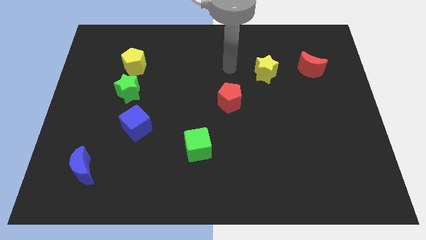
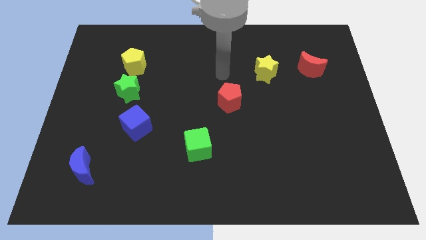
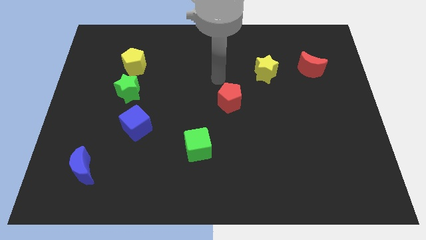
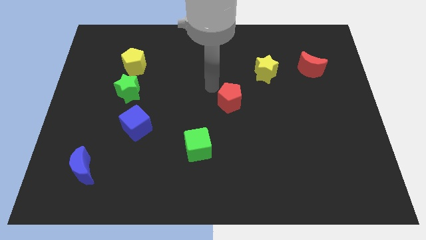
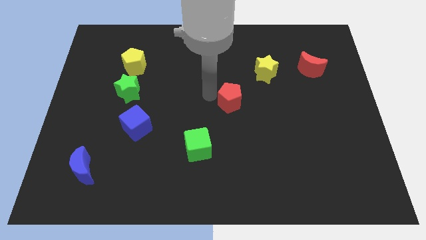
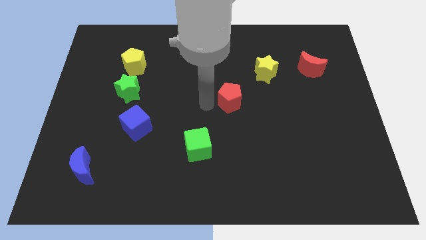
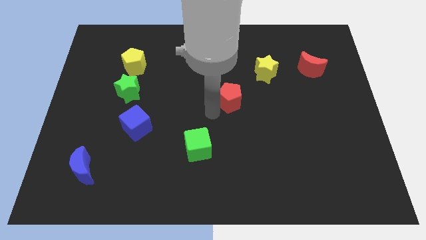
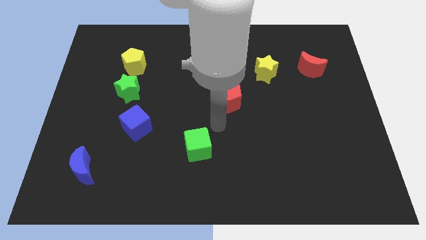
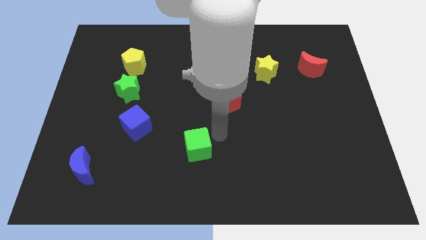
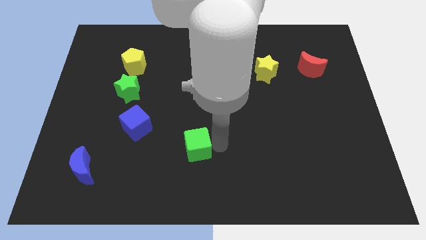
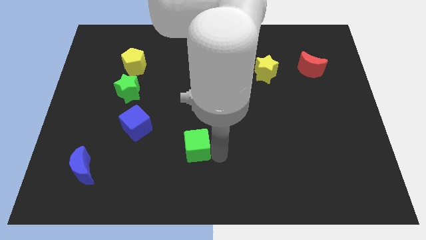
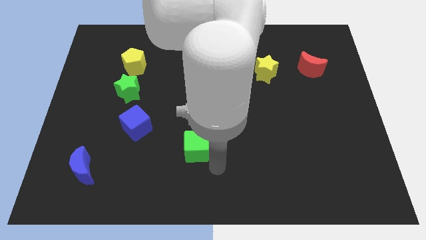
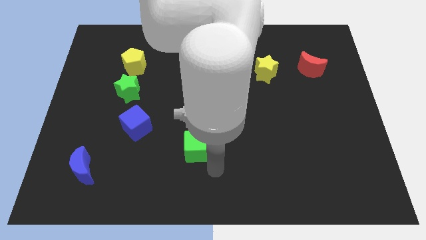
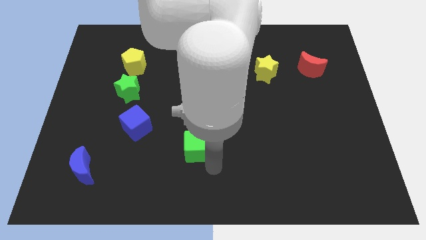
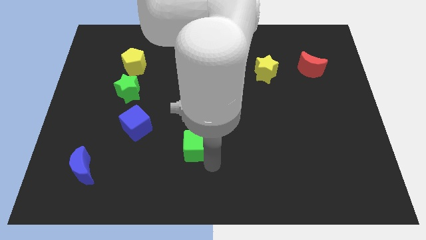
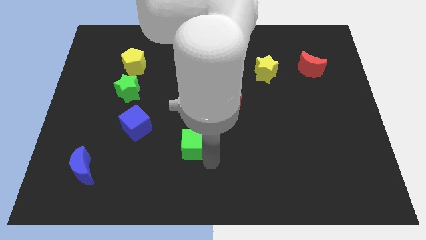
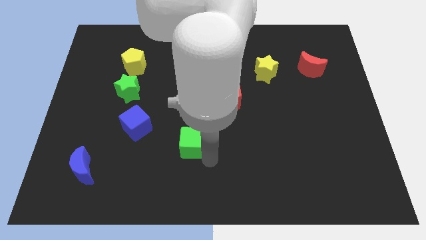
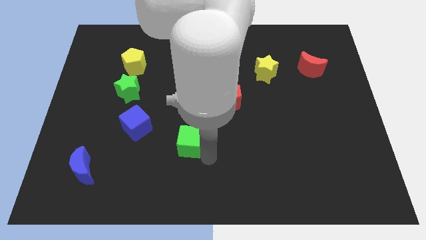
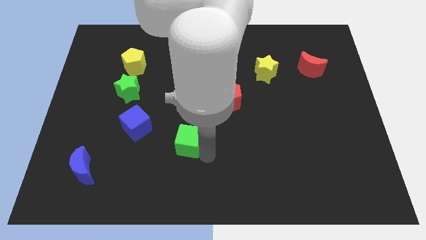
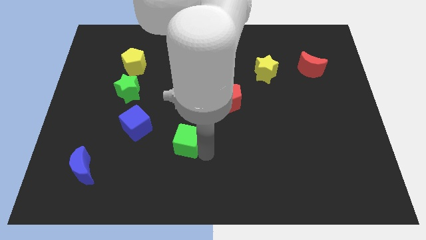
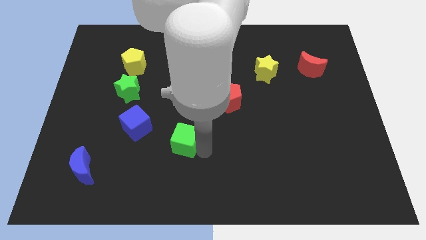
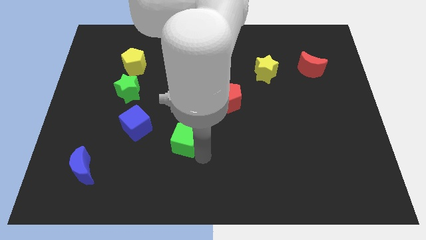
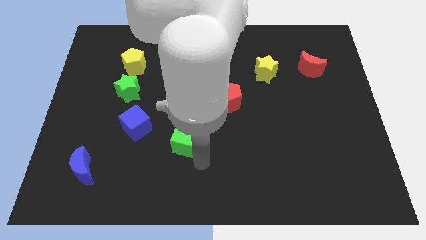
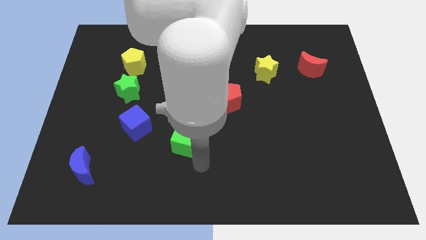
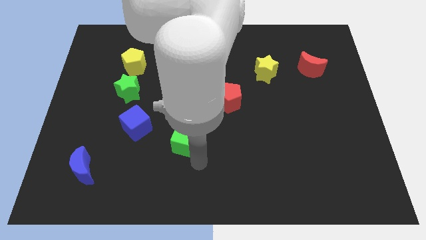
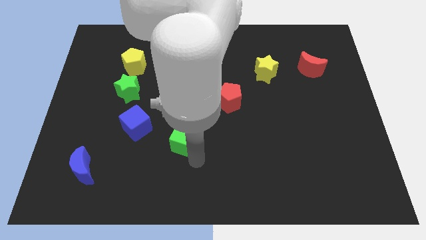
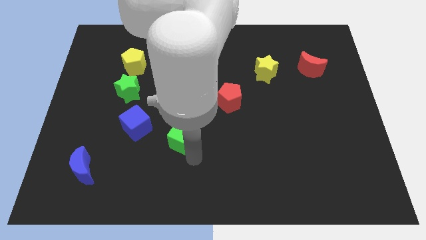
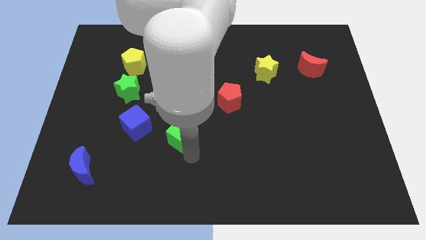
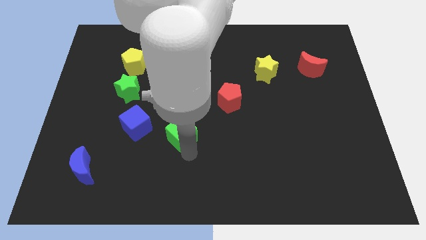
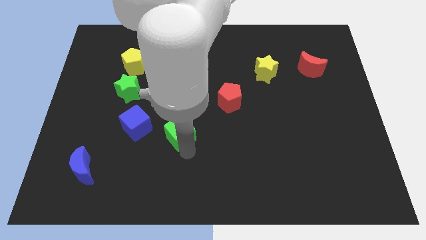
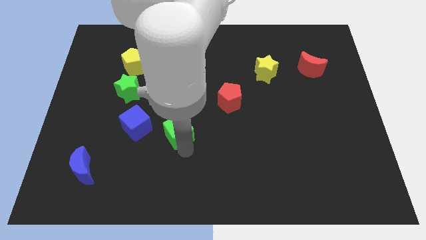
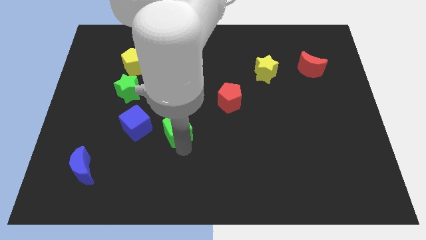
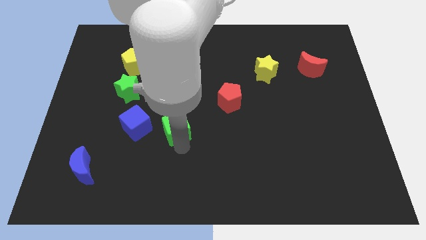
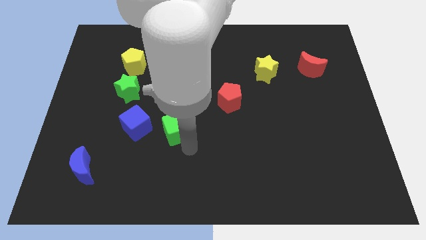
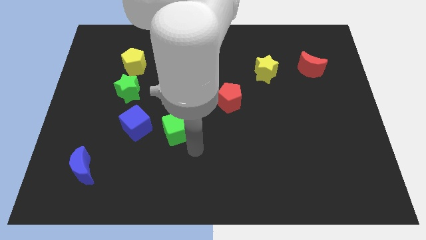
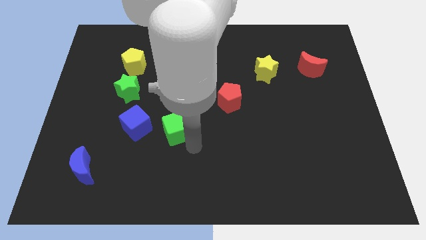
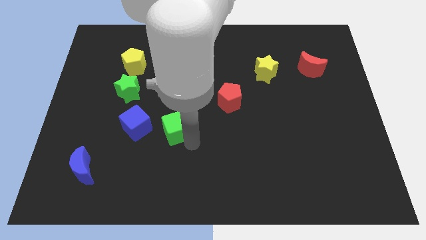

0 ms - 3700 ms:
push the green cube slightly diagonally upwards and to the left

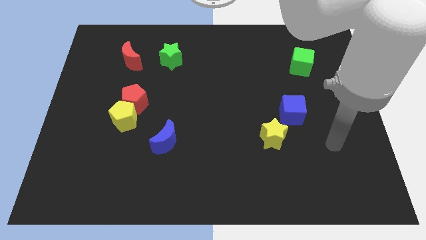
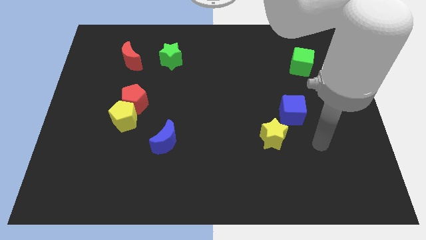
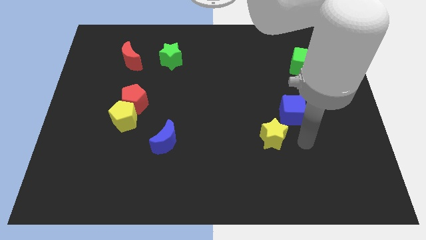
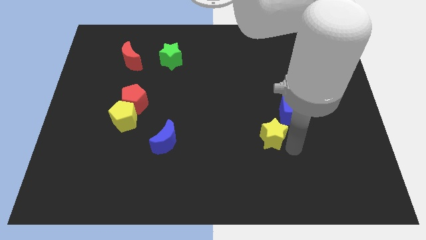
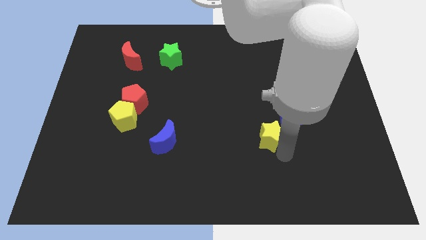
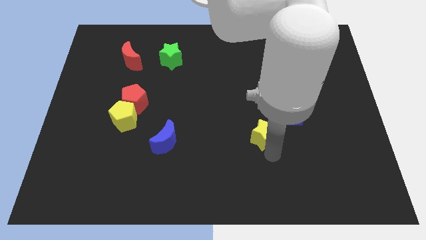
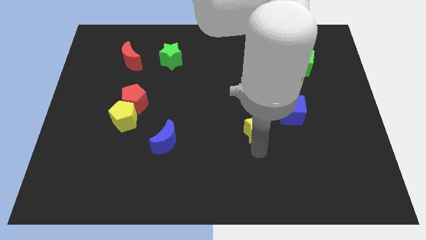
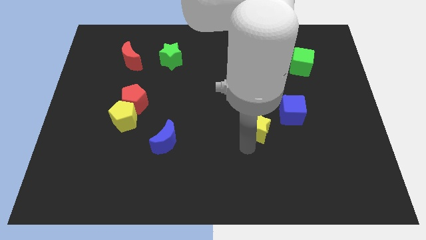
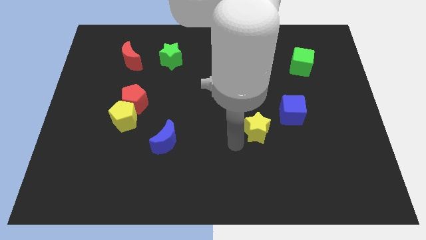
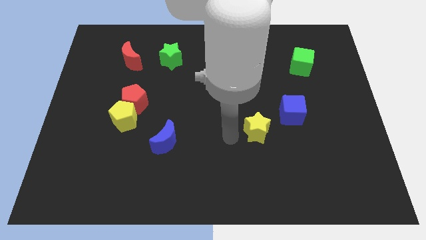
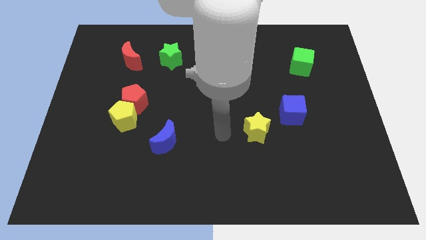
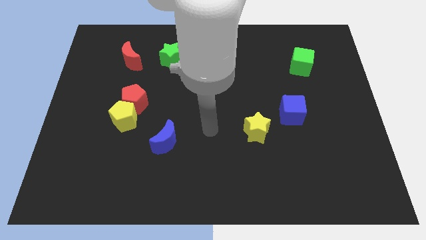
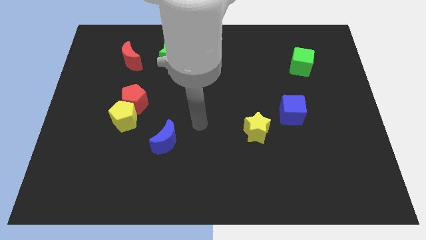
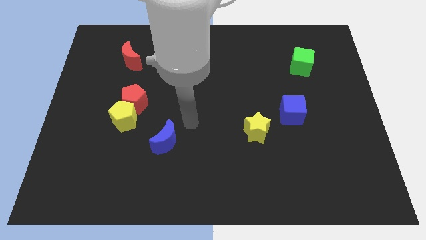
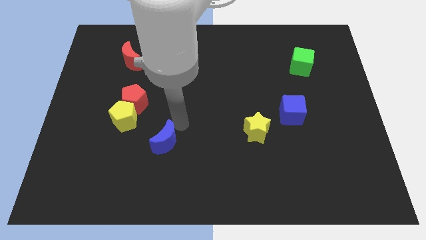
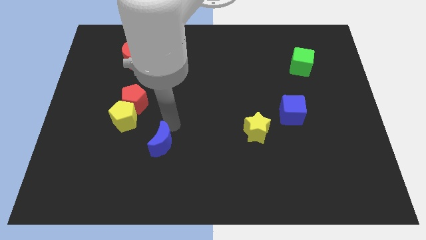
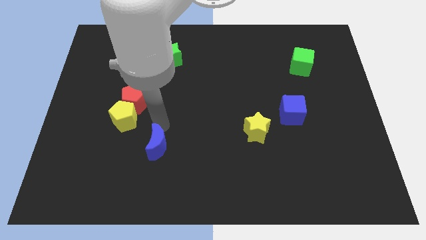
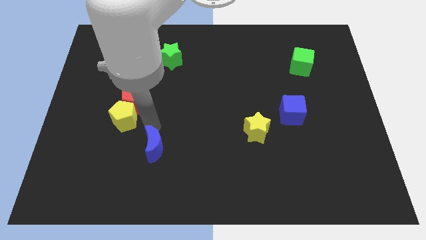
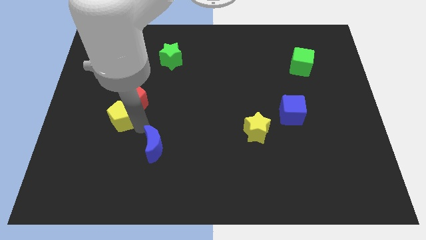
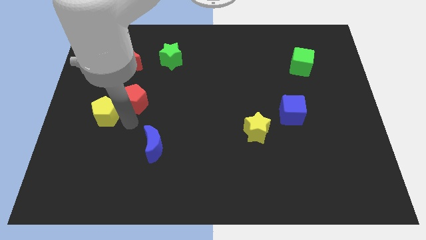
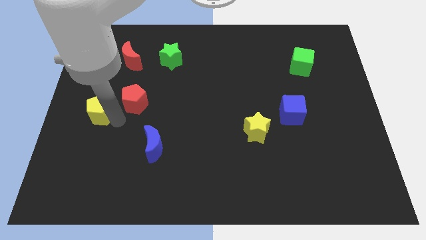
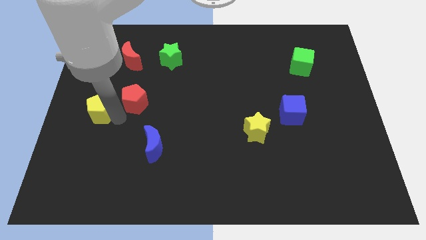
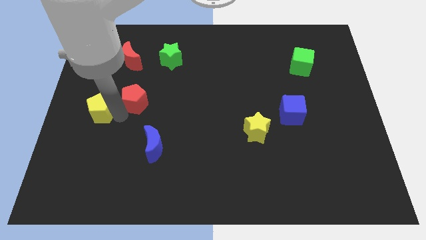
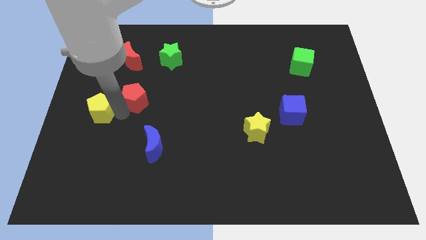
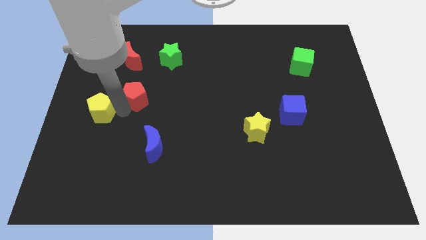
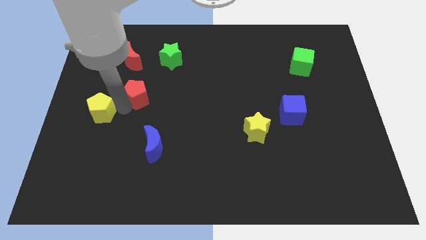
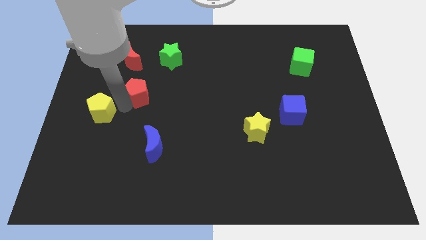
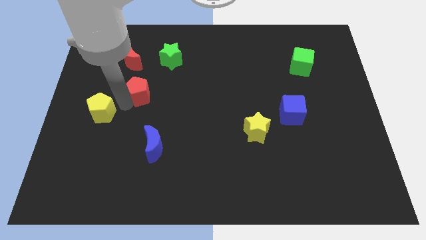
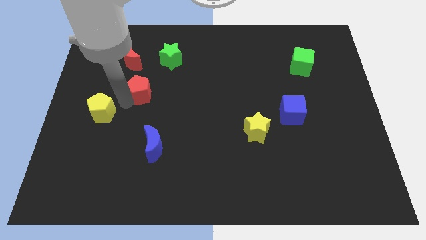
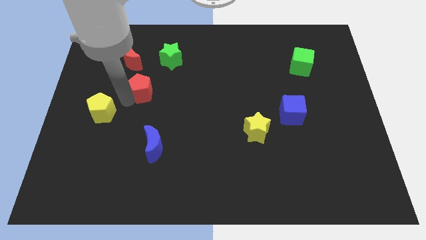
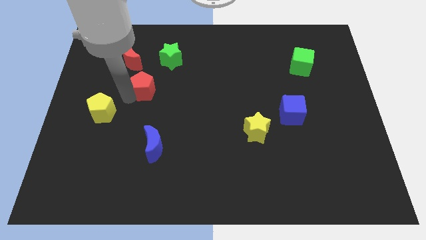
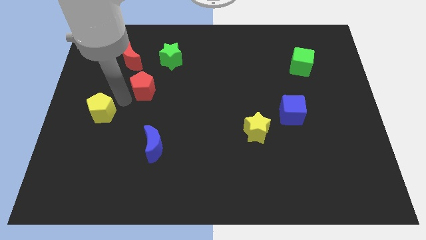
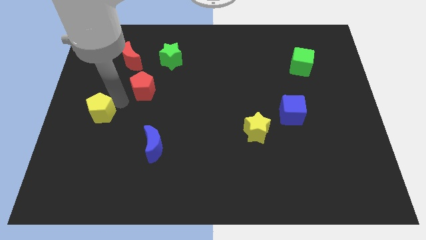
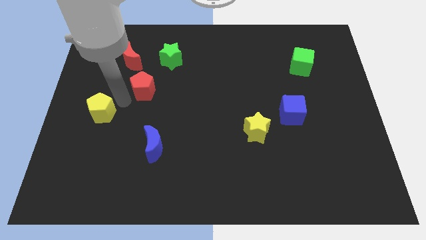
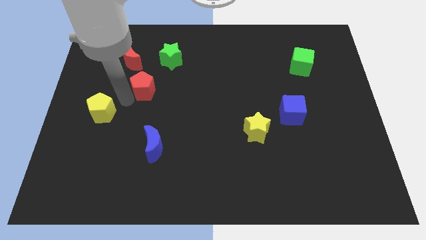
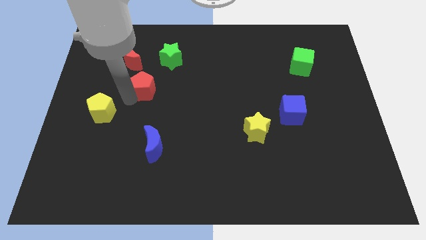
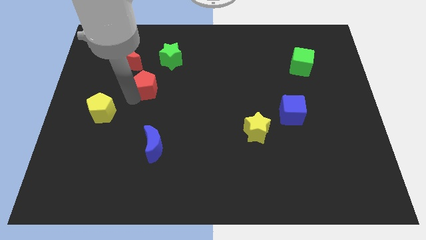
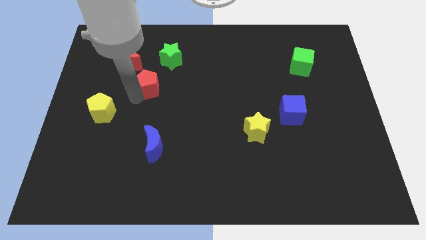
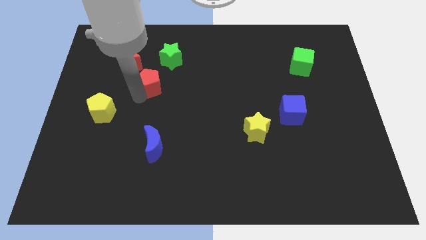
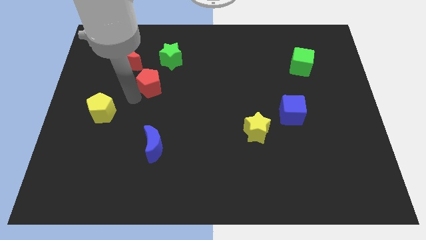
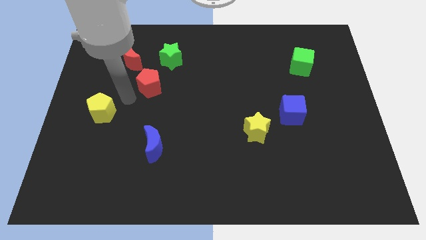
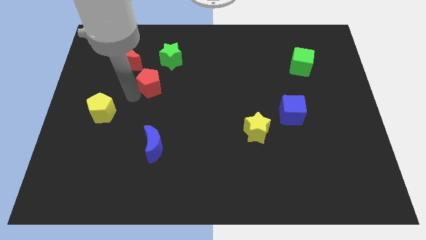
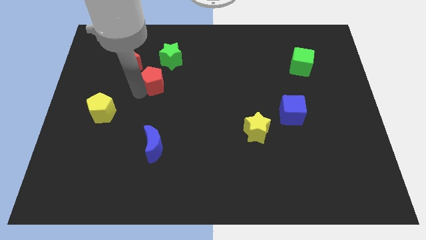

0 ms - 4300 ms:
slightly slide the red pentagon up and right

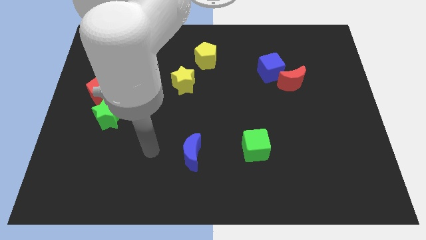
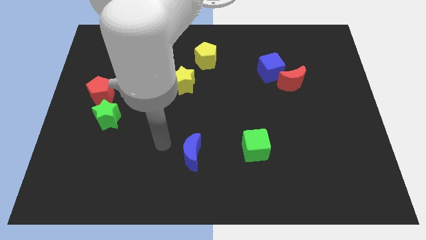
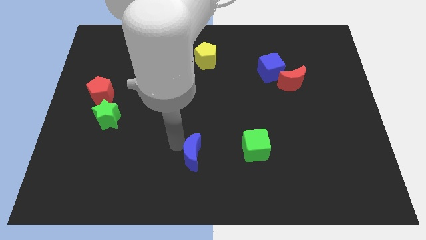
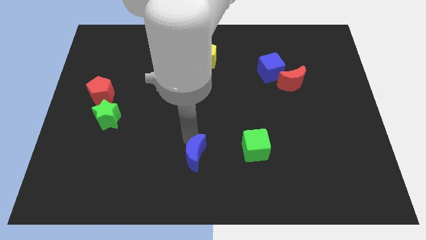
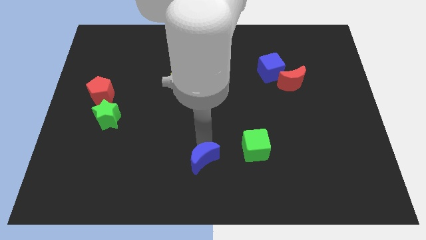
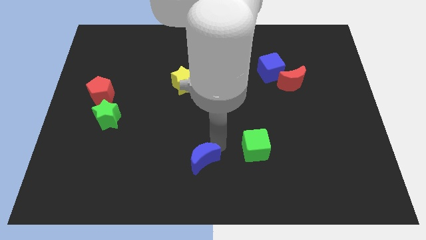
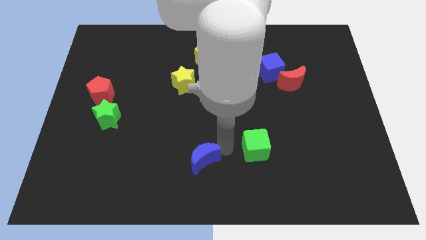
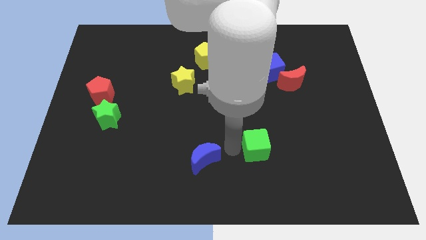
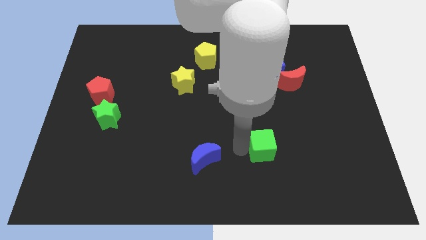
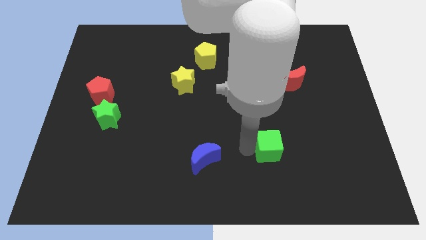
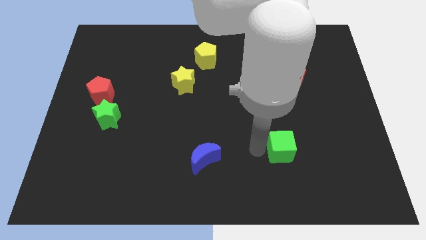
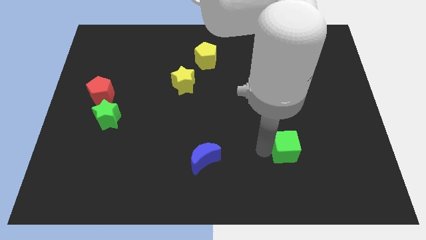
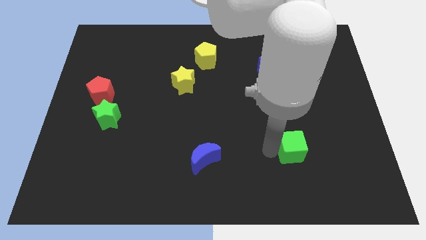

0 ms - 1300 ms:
slightly push the green cube right
